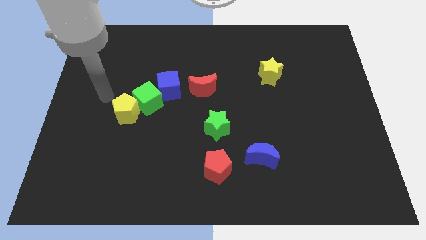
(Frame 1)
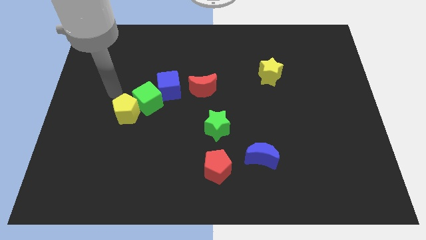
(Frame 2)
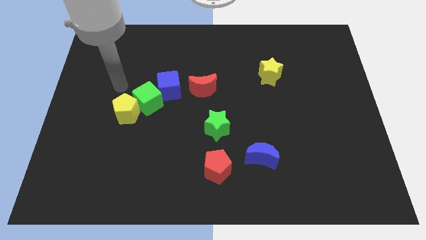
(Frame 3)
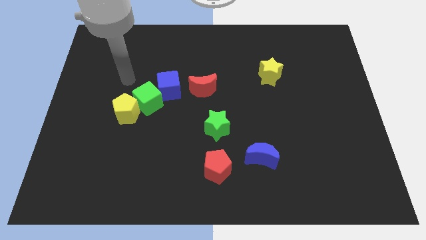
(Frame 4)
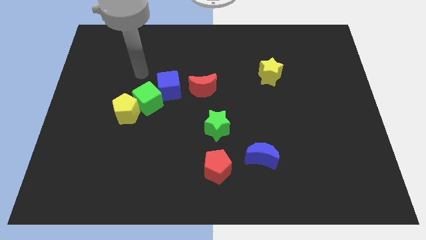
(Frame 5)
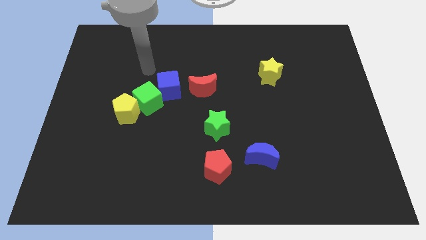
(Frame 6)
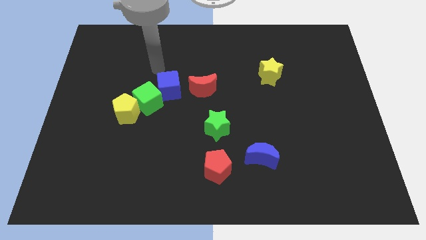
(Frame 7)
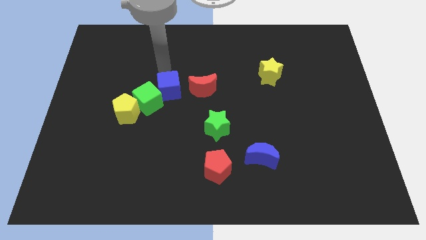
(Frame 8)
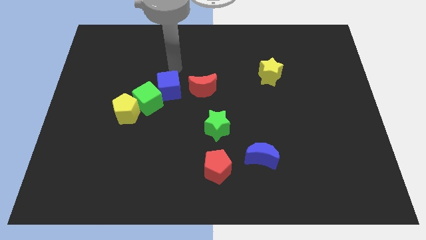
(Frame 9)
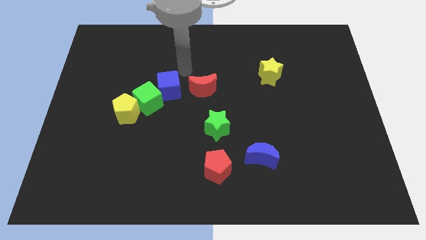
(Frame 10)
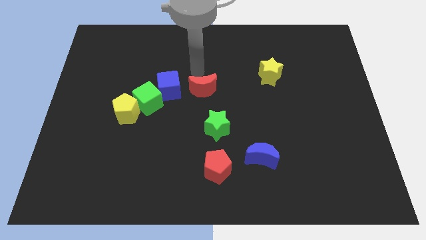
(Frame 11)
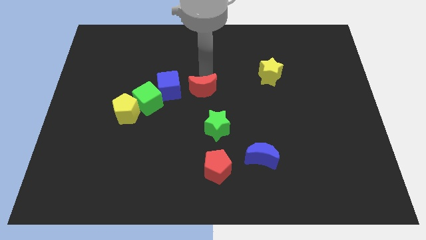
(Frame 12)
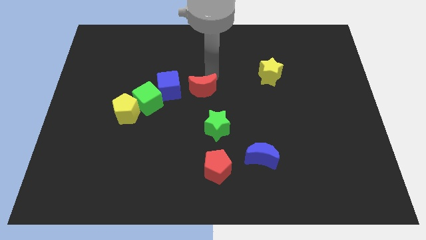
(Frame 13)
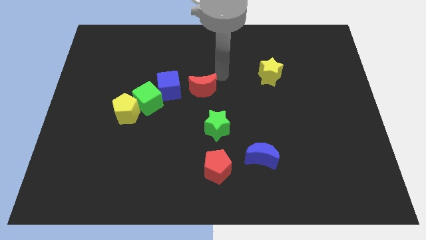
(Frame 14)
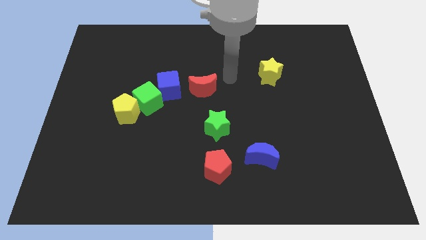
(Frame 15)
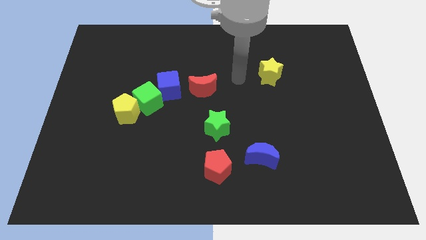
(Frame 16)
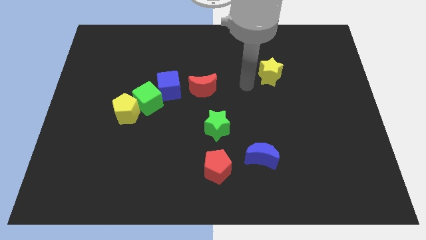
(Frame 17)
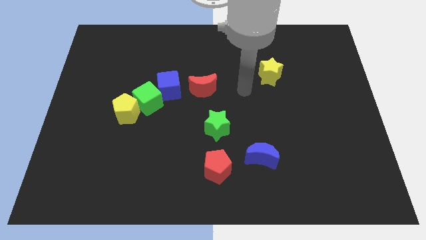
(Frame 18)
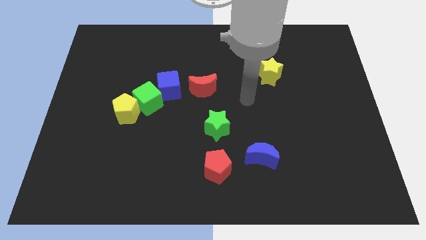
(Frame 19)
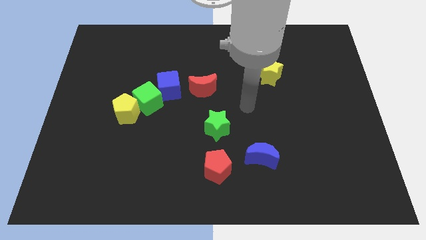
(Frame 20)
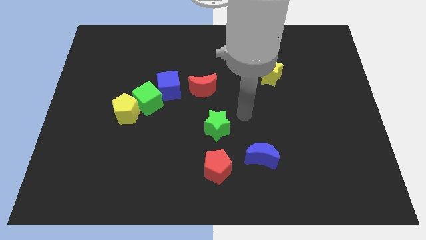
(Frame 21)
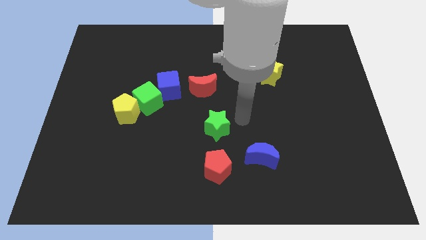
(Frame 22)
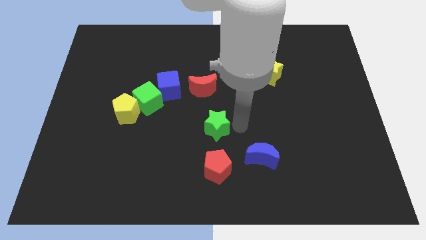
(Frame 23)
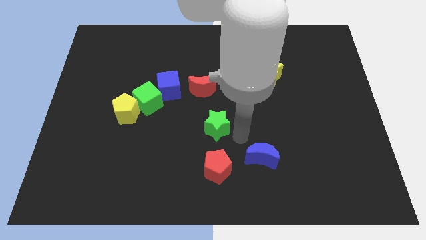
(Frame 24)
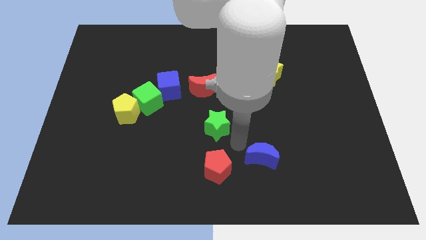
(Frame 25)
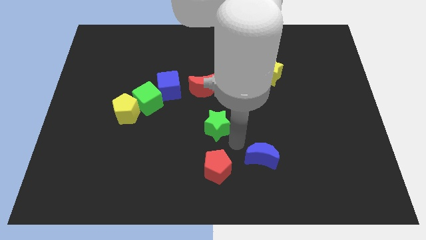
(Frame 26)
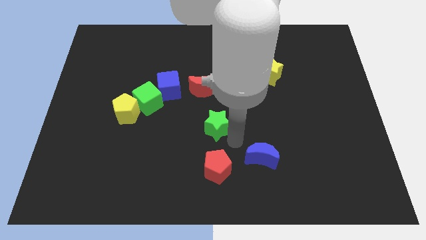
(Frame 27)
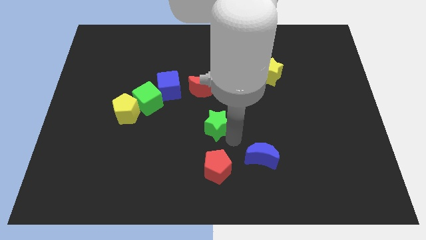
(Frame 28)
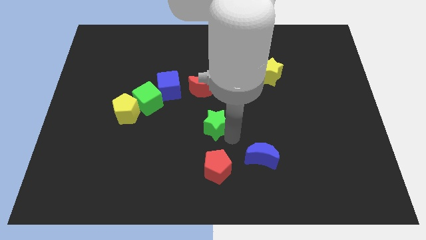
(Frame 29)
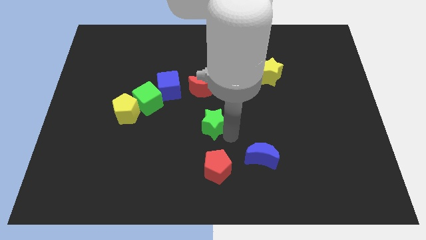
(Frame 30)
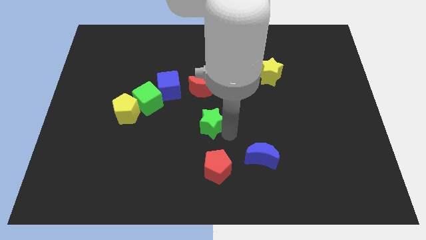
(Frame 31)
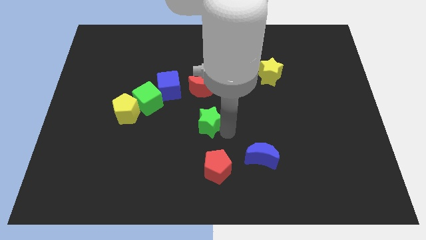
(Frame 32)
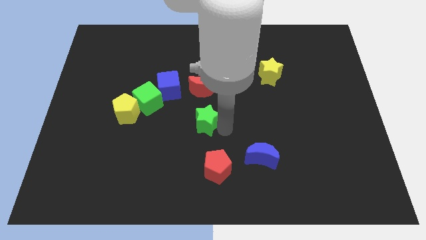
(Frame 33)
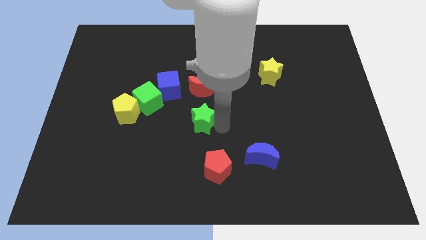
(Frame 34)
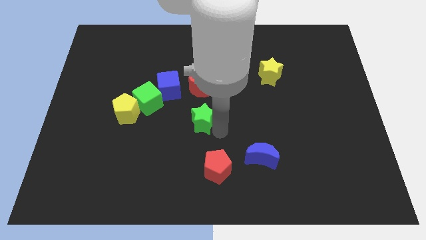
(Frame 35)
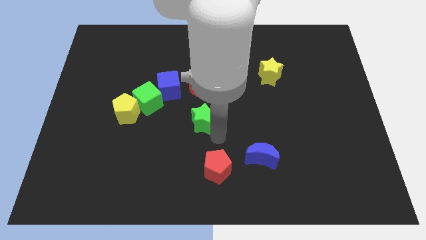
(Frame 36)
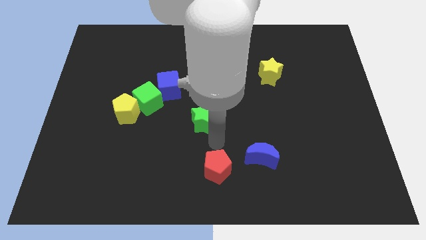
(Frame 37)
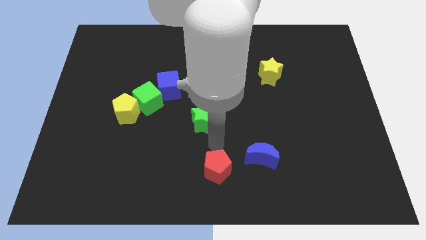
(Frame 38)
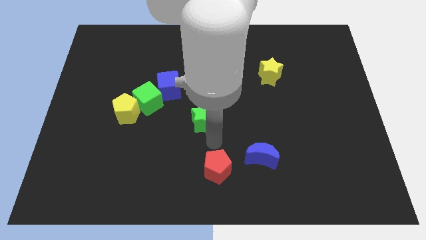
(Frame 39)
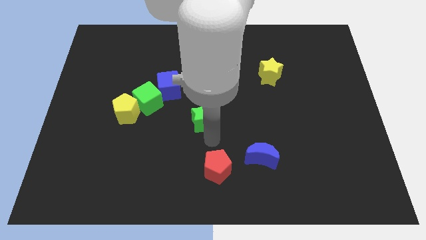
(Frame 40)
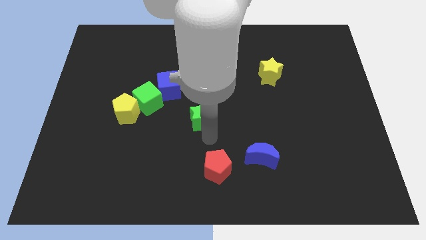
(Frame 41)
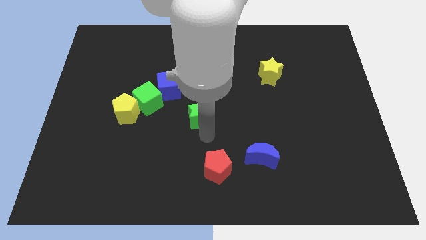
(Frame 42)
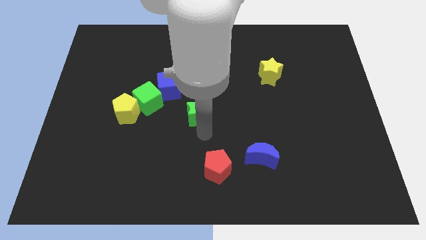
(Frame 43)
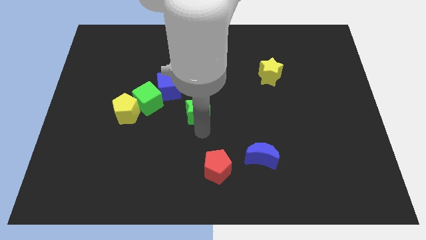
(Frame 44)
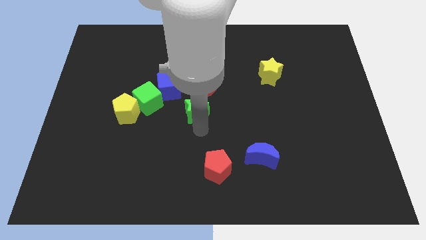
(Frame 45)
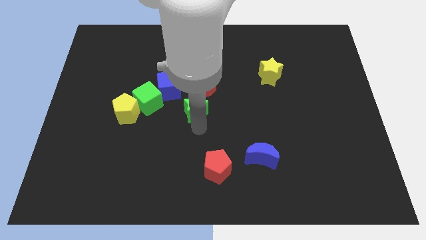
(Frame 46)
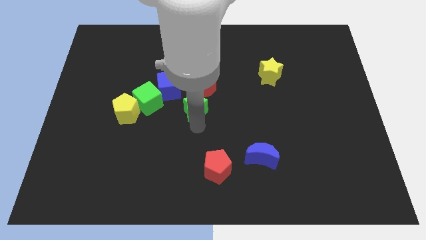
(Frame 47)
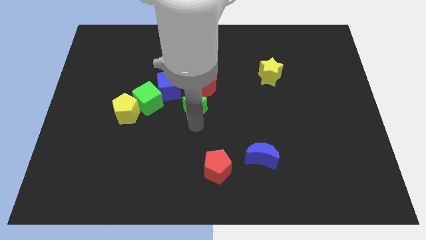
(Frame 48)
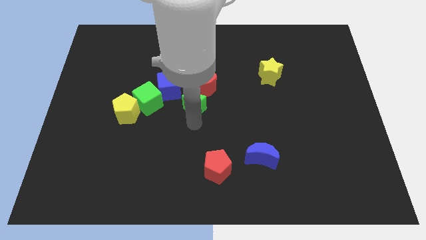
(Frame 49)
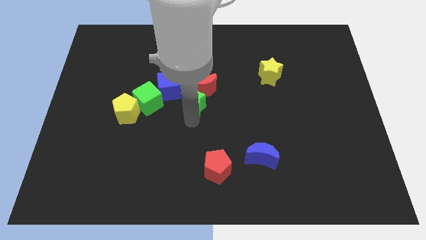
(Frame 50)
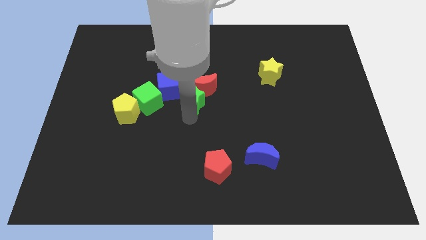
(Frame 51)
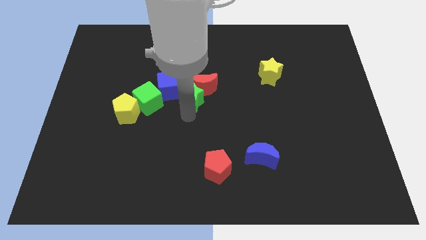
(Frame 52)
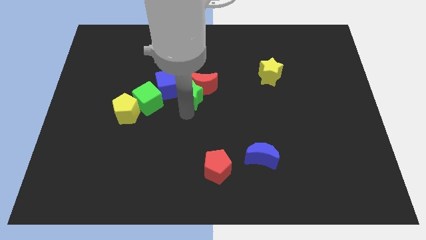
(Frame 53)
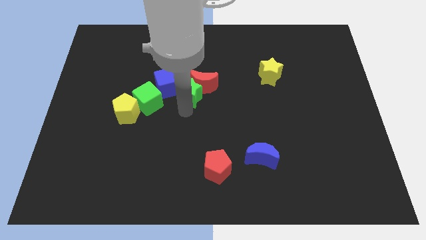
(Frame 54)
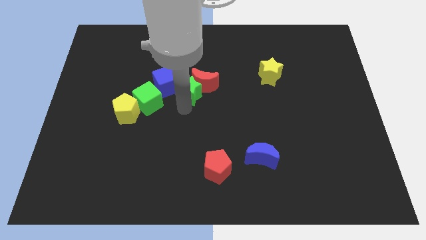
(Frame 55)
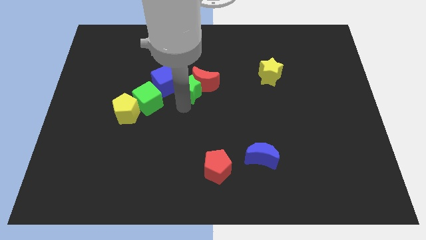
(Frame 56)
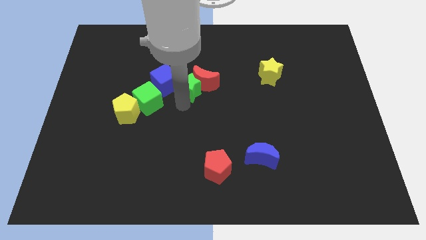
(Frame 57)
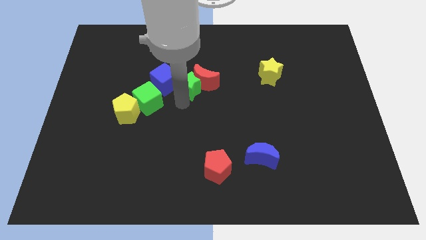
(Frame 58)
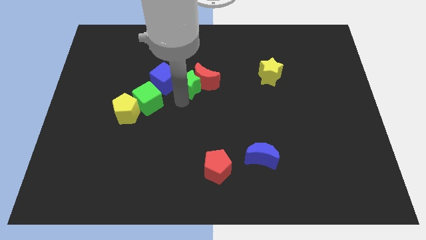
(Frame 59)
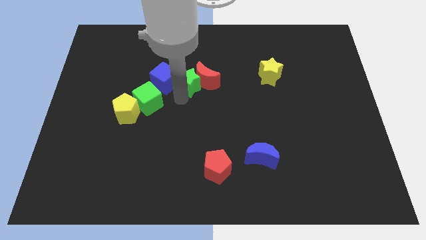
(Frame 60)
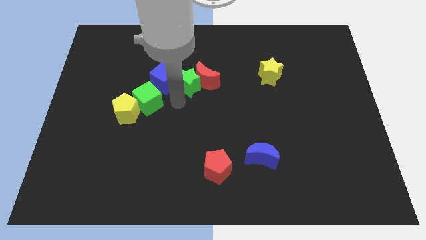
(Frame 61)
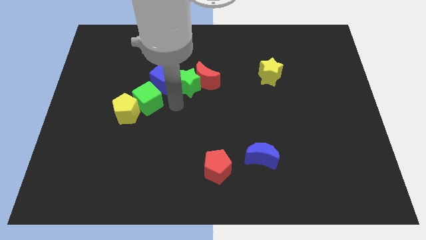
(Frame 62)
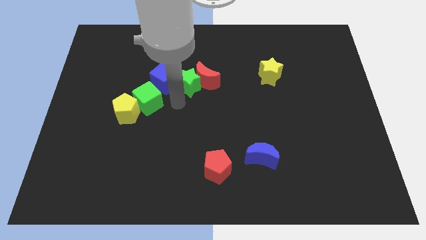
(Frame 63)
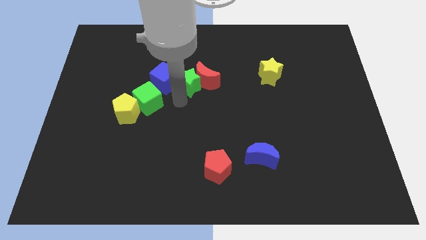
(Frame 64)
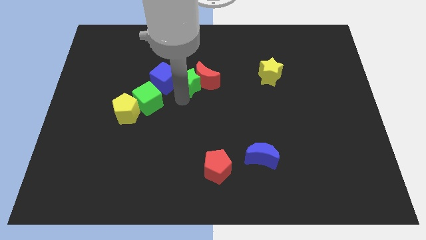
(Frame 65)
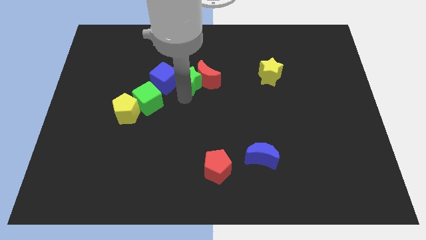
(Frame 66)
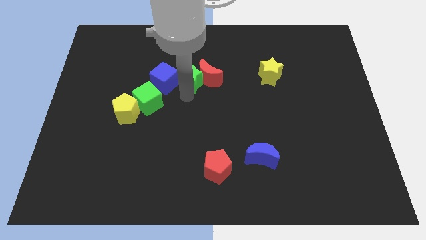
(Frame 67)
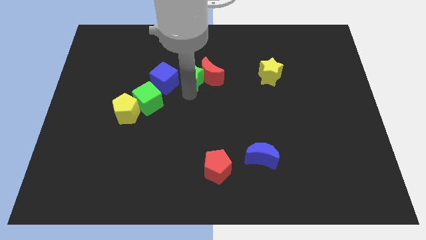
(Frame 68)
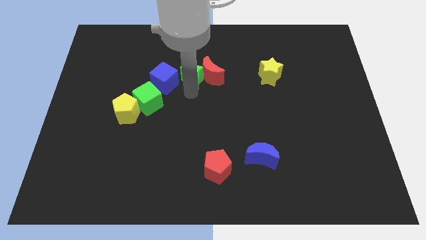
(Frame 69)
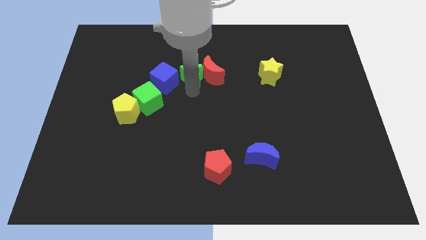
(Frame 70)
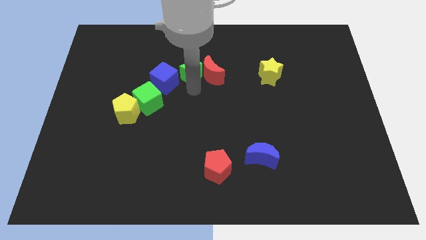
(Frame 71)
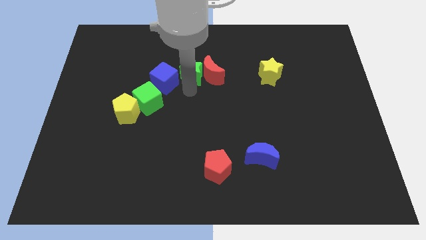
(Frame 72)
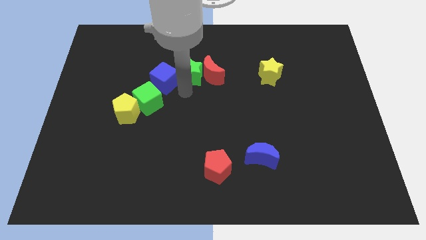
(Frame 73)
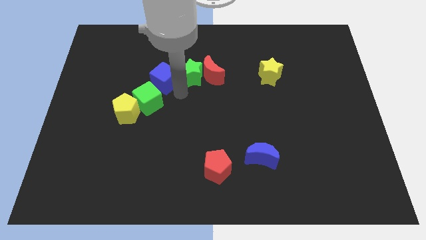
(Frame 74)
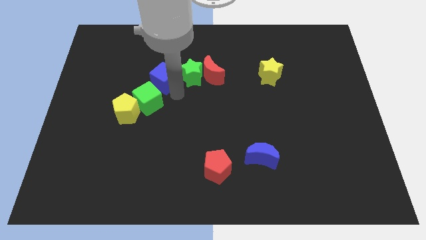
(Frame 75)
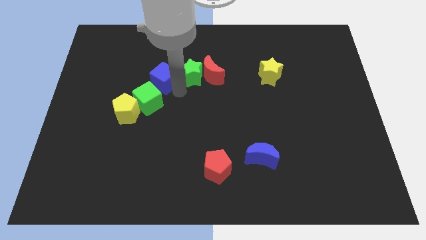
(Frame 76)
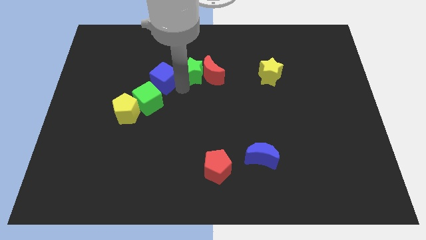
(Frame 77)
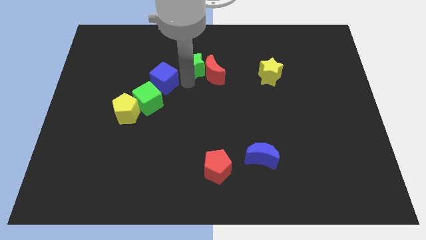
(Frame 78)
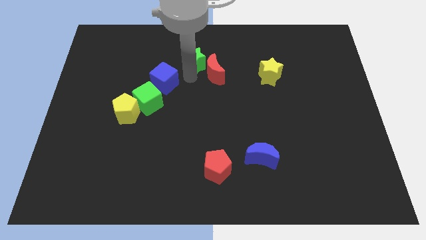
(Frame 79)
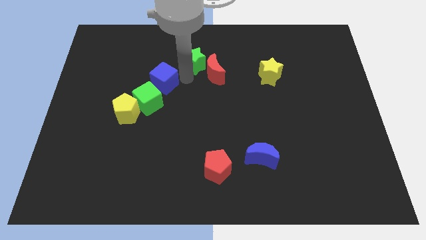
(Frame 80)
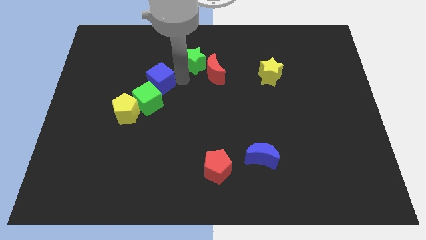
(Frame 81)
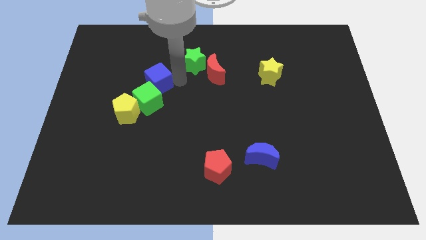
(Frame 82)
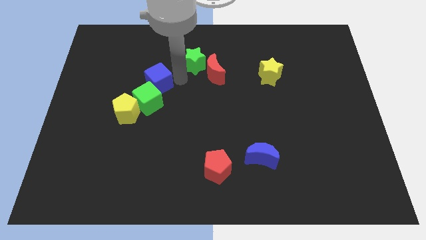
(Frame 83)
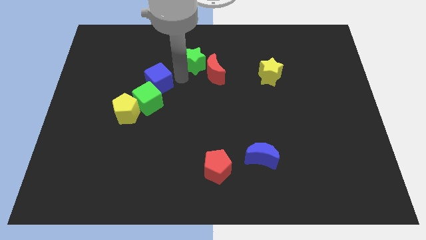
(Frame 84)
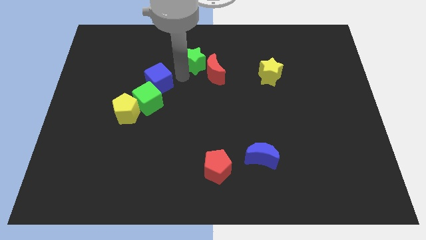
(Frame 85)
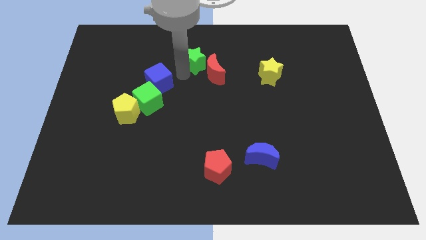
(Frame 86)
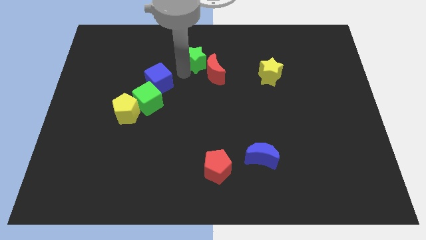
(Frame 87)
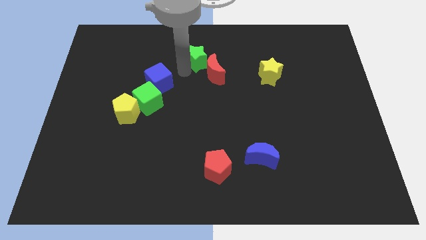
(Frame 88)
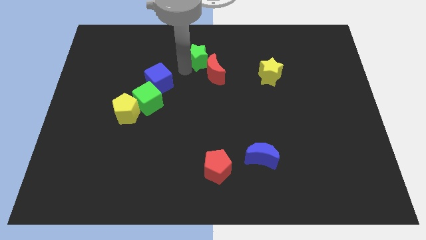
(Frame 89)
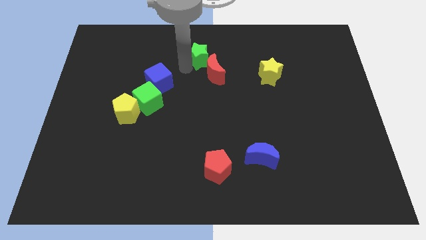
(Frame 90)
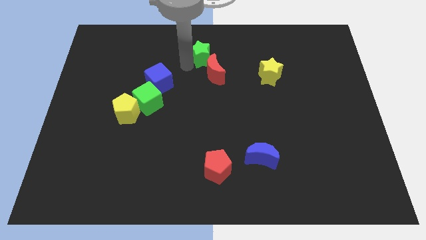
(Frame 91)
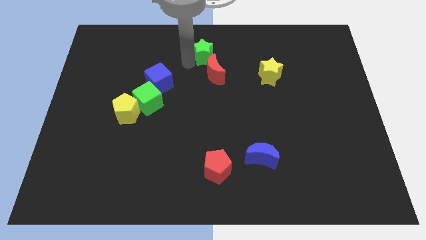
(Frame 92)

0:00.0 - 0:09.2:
put the green star to the top side
